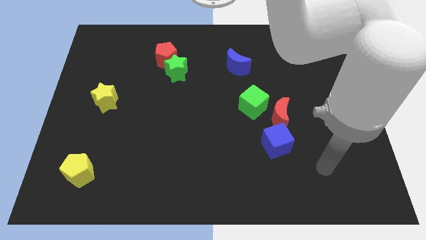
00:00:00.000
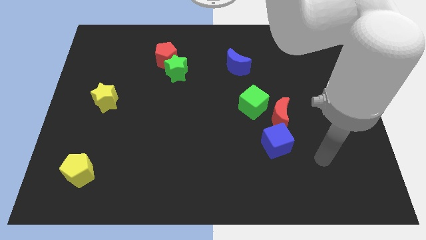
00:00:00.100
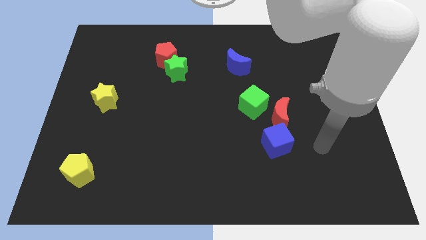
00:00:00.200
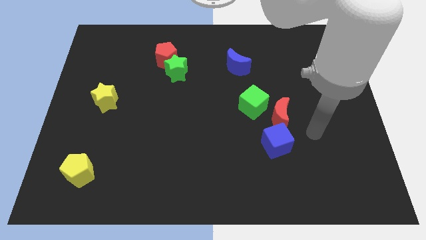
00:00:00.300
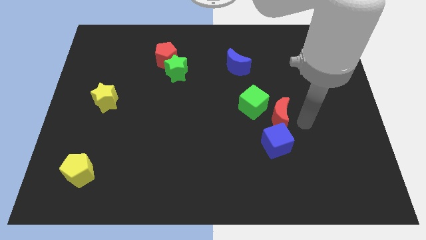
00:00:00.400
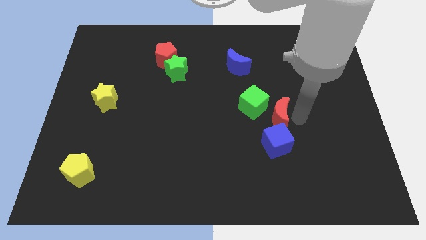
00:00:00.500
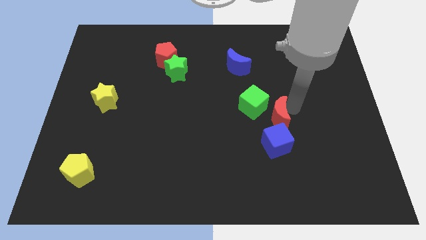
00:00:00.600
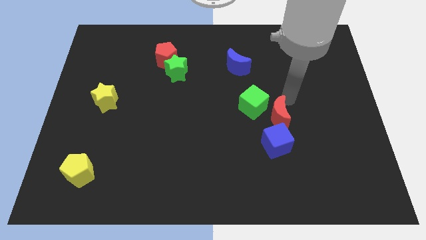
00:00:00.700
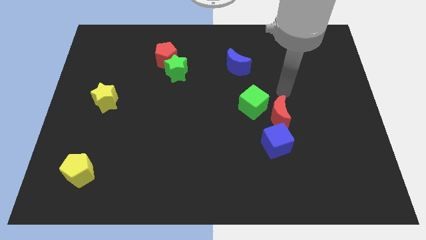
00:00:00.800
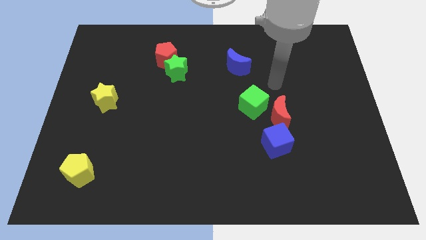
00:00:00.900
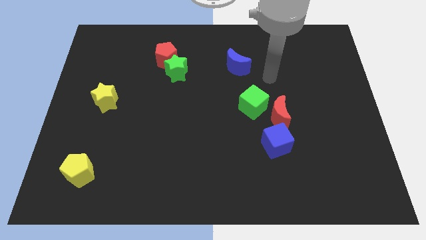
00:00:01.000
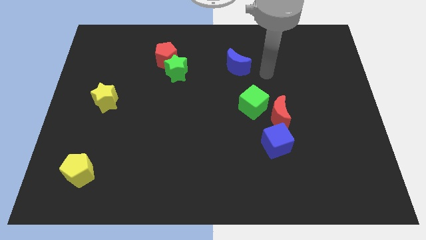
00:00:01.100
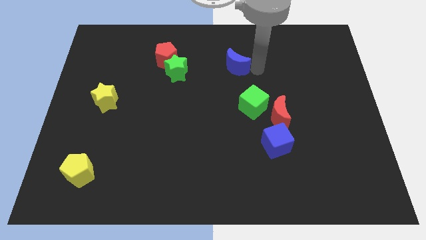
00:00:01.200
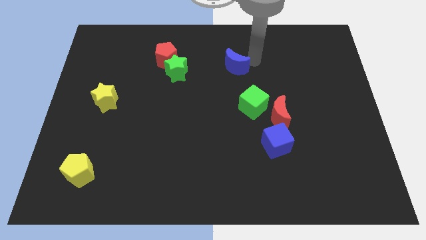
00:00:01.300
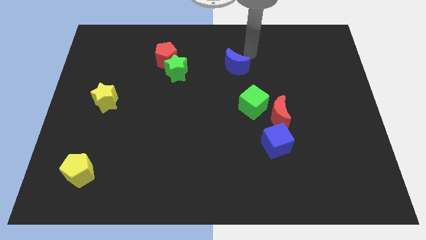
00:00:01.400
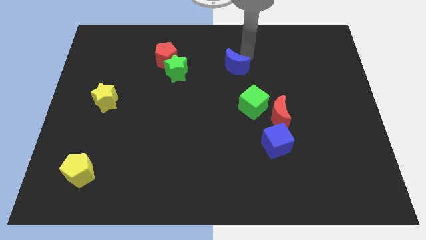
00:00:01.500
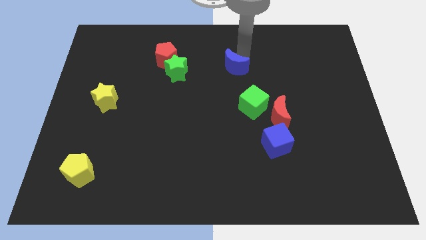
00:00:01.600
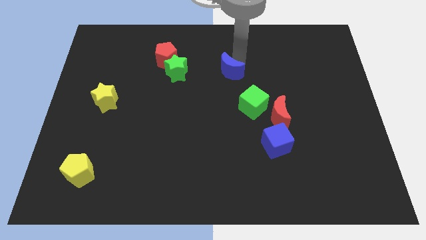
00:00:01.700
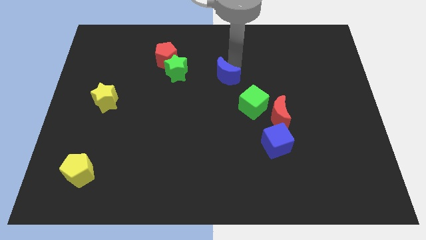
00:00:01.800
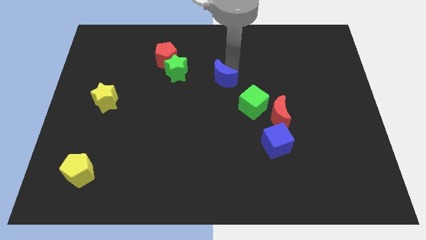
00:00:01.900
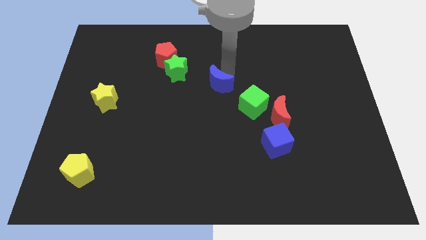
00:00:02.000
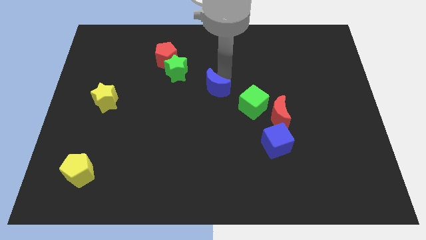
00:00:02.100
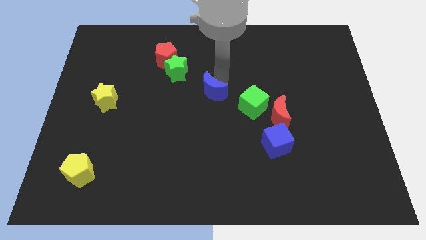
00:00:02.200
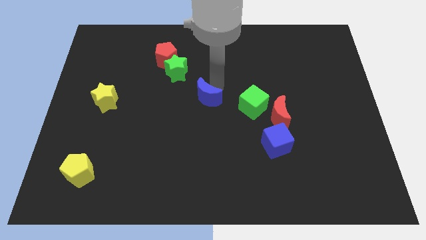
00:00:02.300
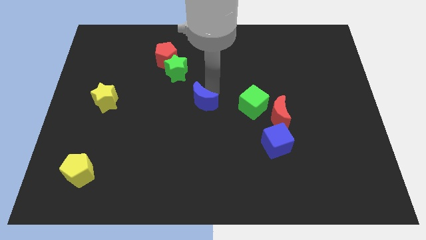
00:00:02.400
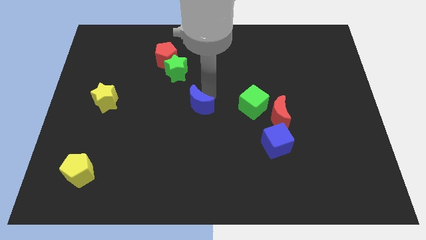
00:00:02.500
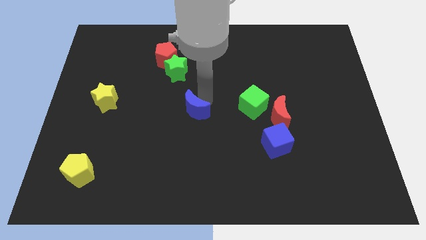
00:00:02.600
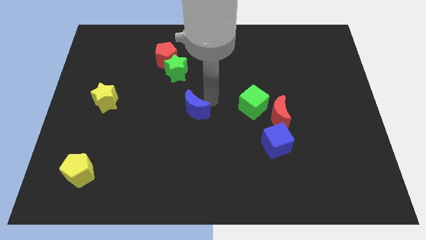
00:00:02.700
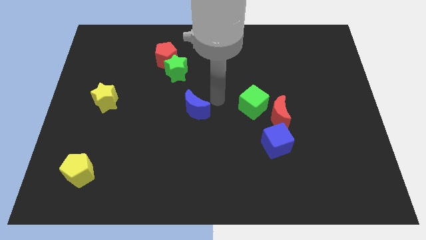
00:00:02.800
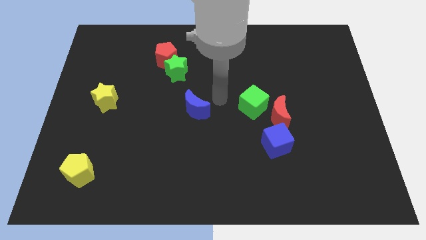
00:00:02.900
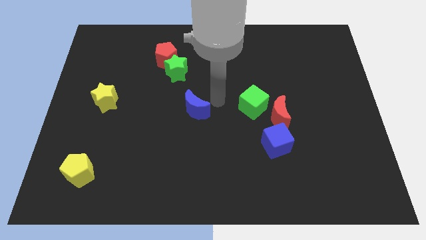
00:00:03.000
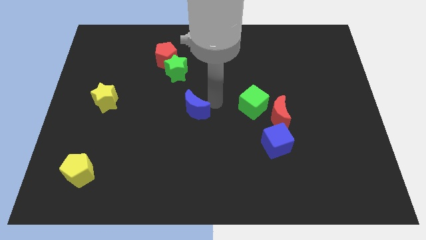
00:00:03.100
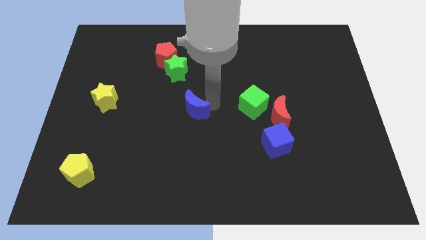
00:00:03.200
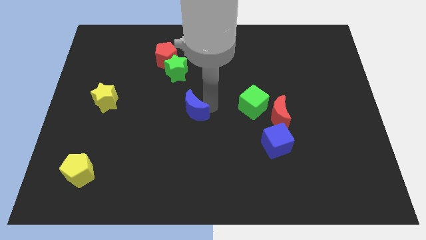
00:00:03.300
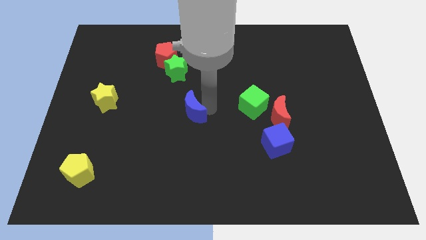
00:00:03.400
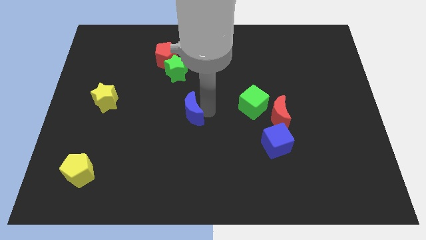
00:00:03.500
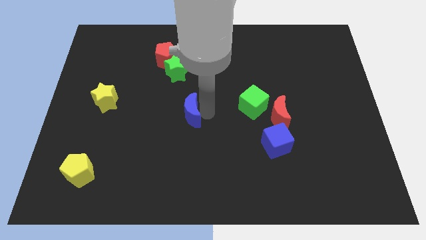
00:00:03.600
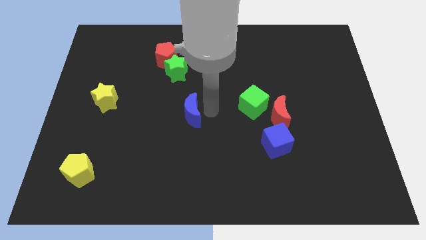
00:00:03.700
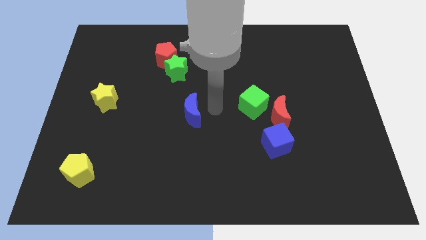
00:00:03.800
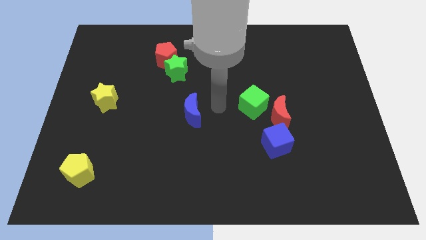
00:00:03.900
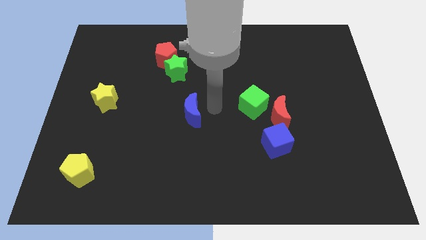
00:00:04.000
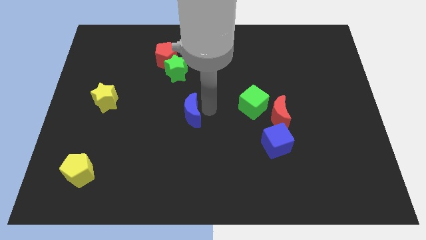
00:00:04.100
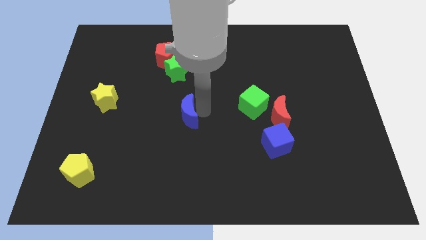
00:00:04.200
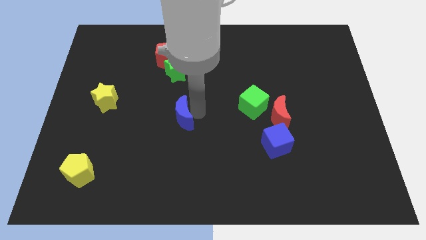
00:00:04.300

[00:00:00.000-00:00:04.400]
slide the blue moon down and then to the left

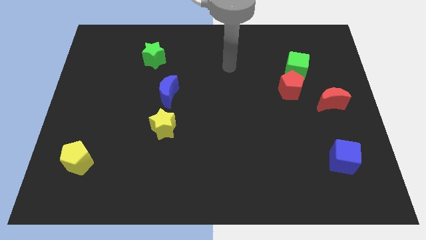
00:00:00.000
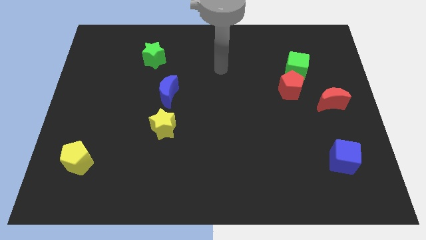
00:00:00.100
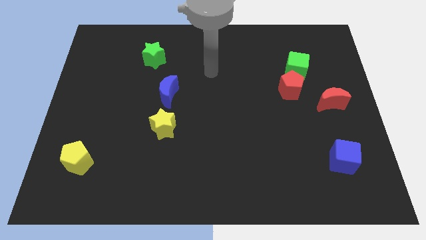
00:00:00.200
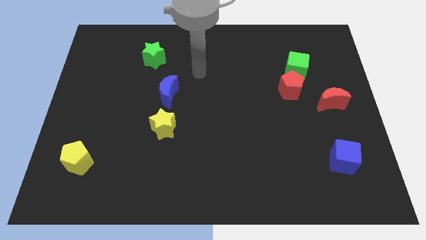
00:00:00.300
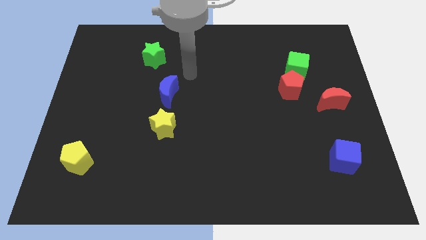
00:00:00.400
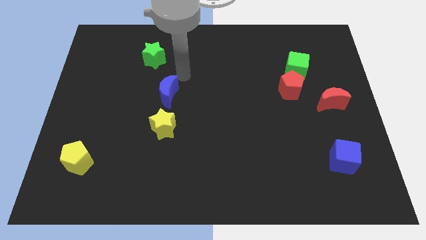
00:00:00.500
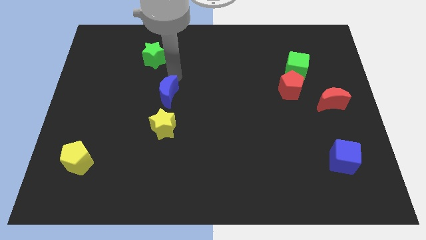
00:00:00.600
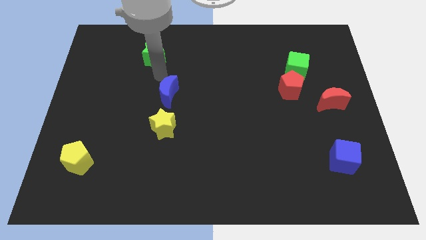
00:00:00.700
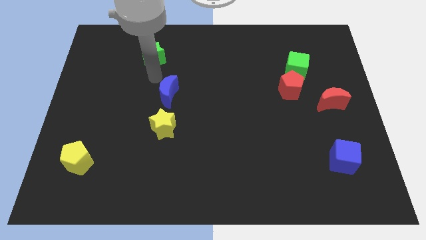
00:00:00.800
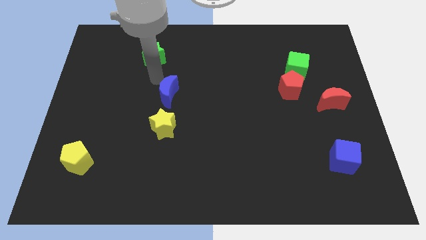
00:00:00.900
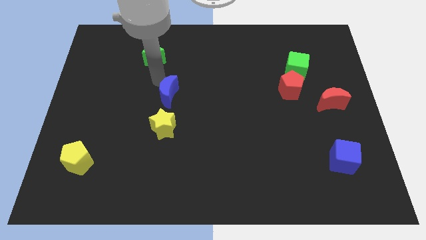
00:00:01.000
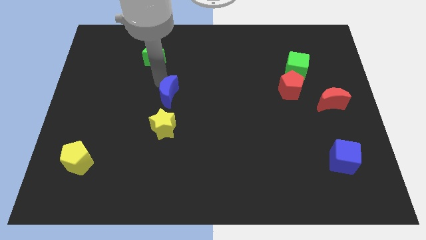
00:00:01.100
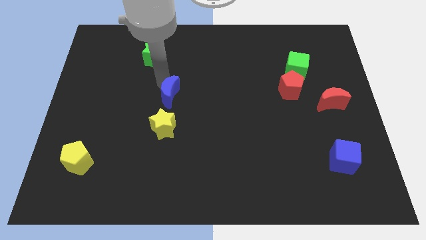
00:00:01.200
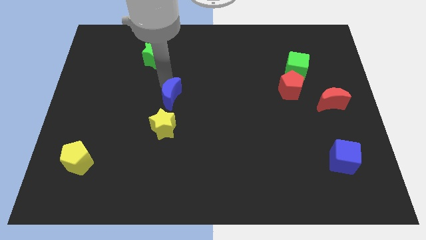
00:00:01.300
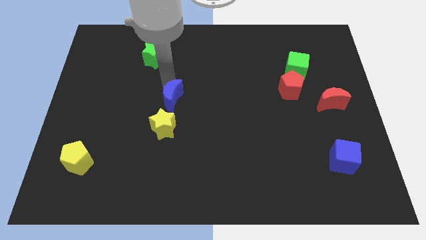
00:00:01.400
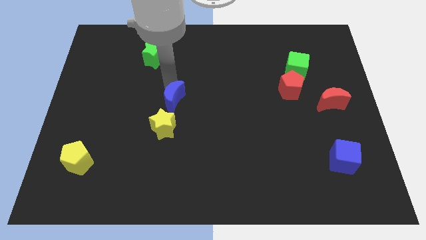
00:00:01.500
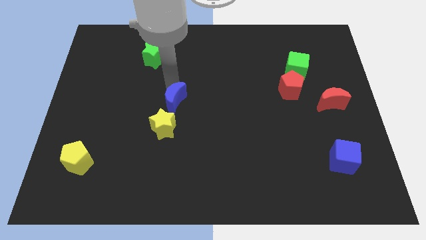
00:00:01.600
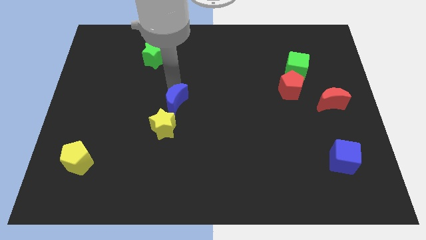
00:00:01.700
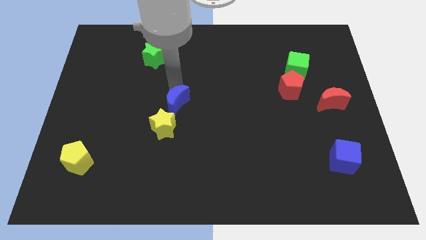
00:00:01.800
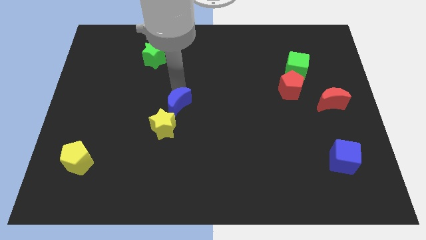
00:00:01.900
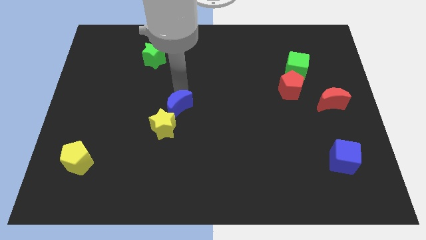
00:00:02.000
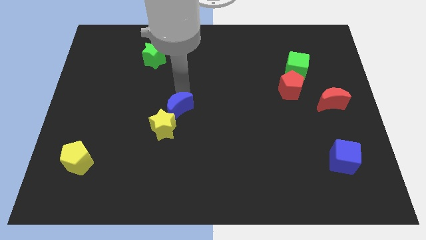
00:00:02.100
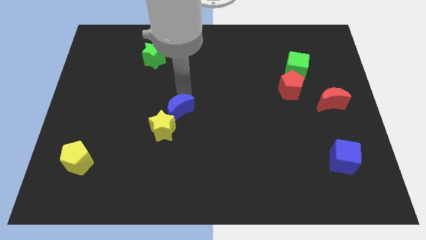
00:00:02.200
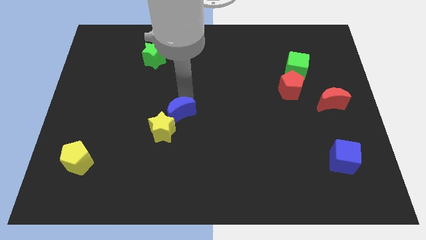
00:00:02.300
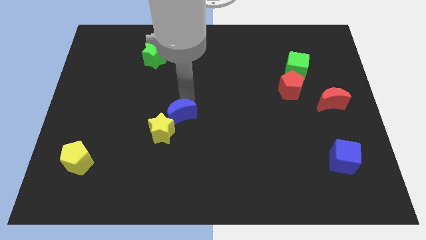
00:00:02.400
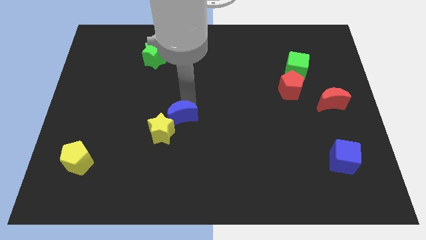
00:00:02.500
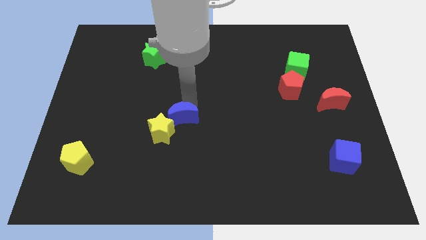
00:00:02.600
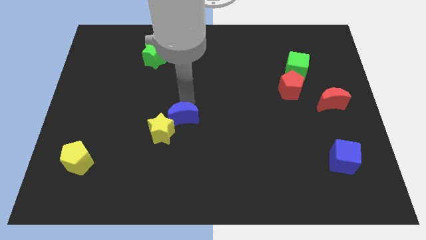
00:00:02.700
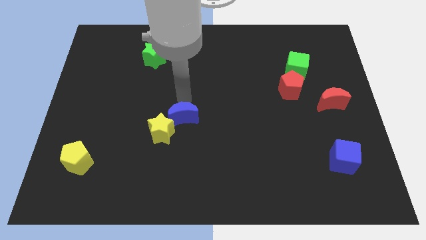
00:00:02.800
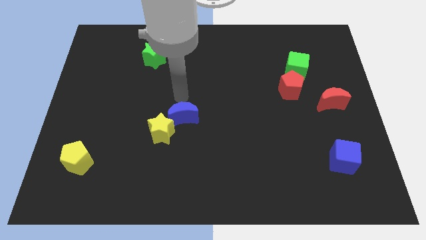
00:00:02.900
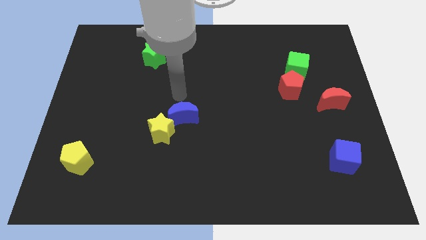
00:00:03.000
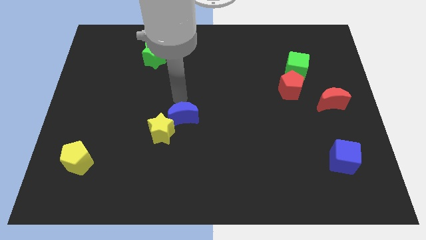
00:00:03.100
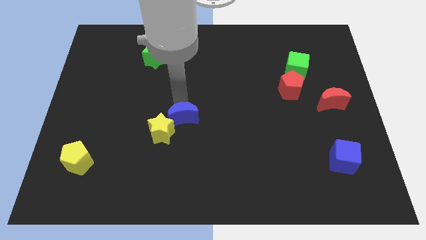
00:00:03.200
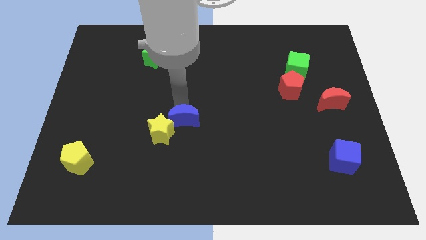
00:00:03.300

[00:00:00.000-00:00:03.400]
move the blue moon down slightly

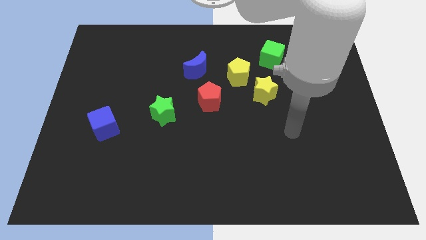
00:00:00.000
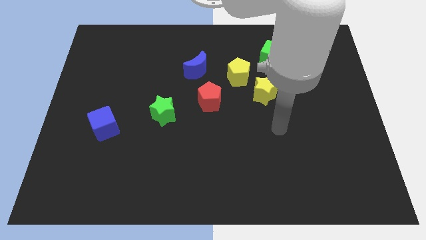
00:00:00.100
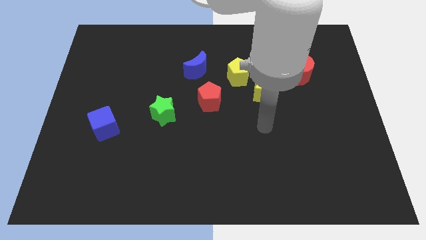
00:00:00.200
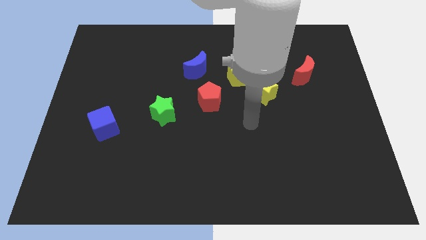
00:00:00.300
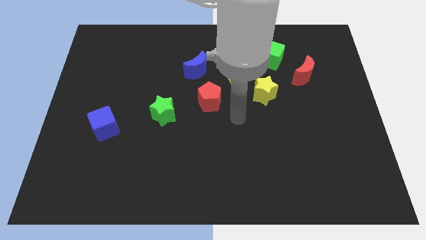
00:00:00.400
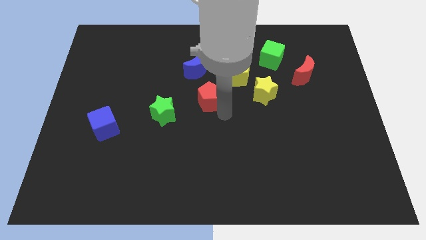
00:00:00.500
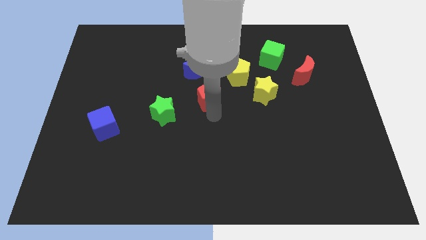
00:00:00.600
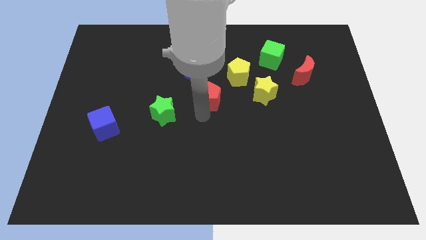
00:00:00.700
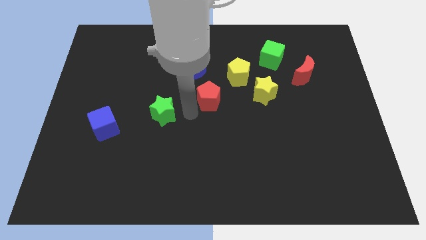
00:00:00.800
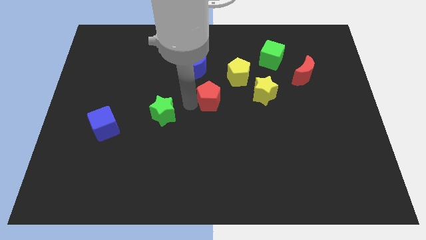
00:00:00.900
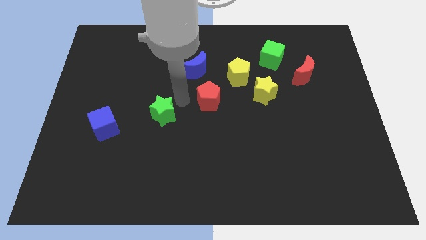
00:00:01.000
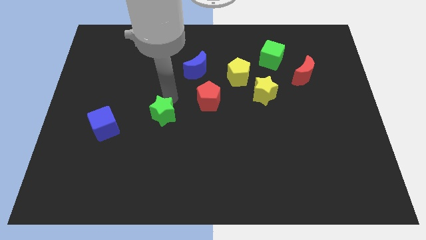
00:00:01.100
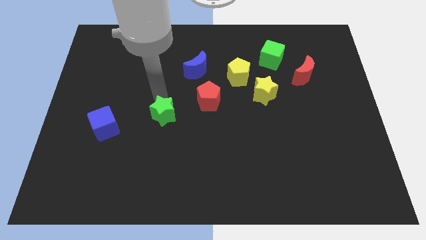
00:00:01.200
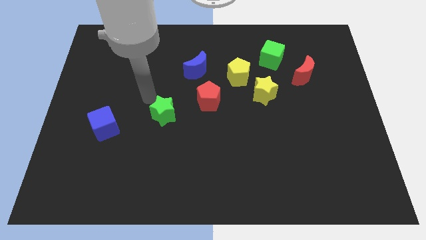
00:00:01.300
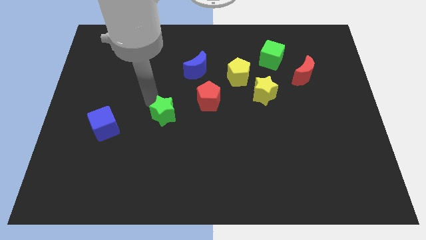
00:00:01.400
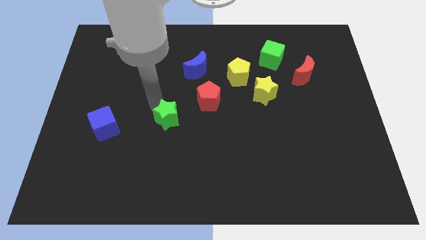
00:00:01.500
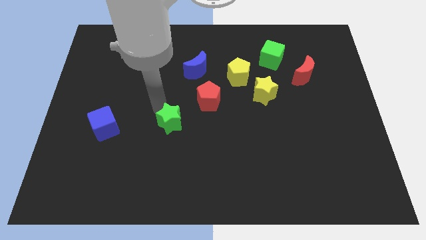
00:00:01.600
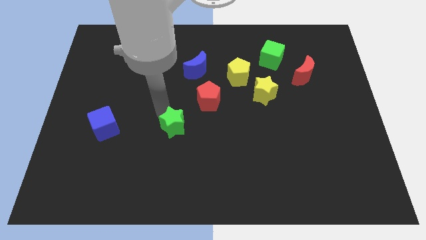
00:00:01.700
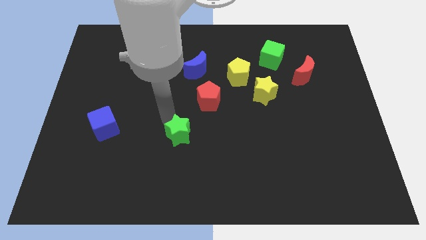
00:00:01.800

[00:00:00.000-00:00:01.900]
slightly move the green star diagonally downwards and right
